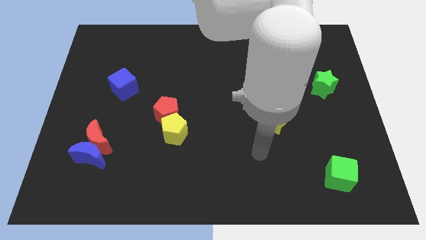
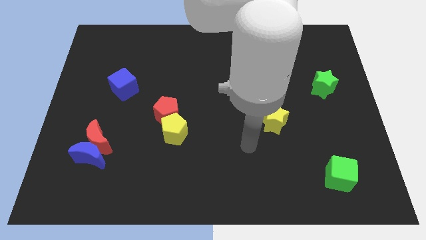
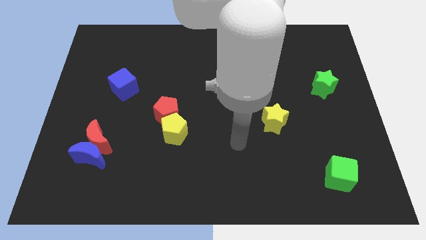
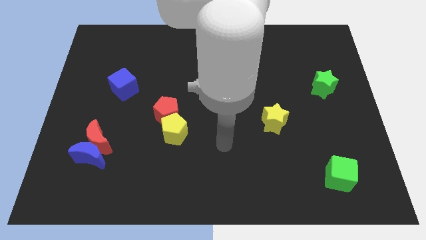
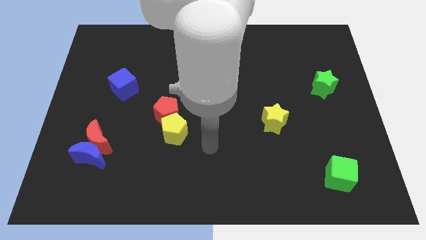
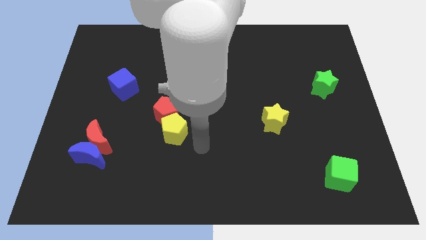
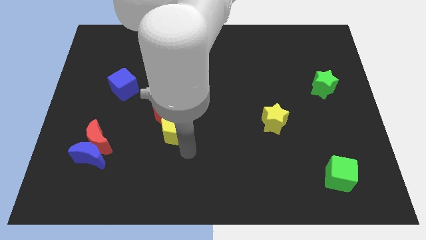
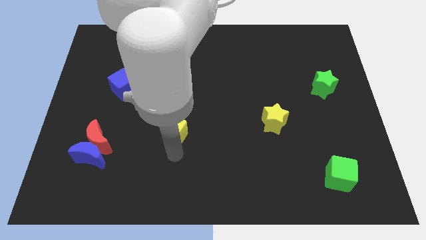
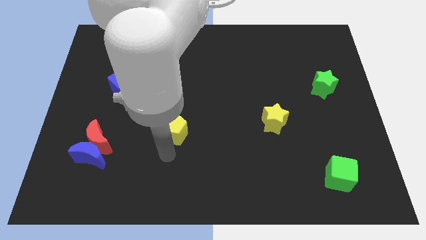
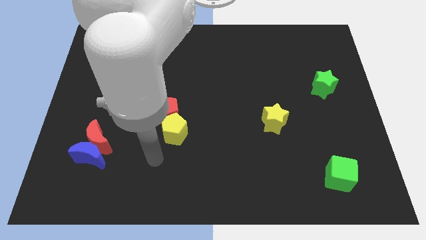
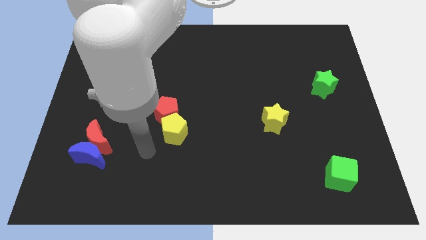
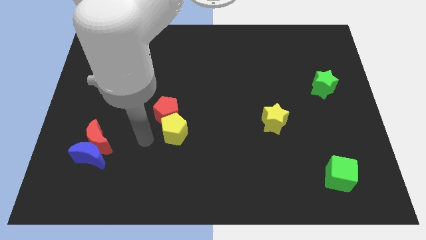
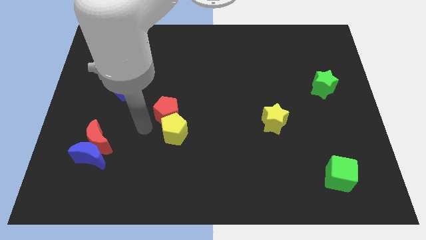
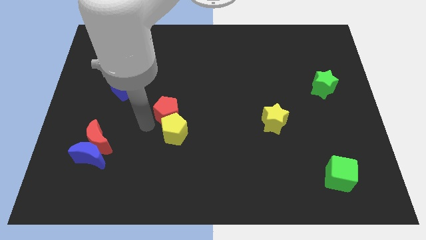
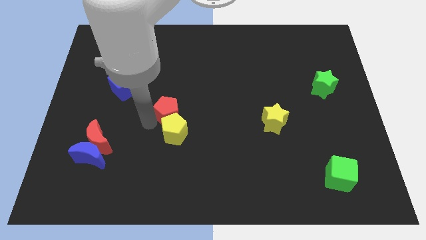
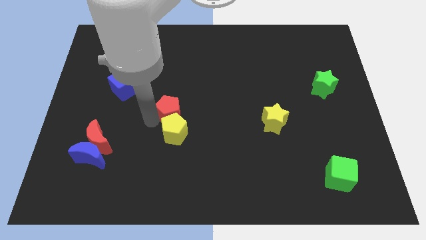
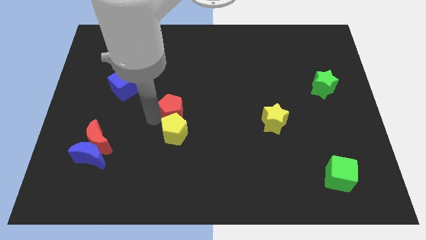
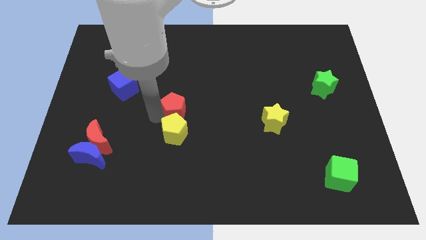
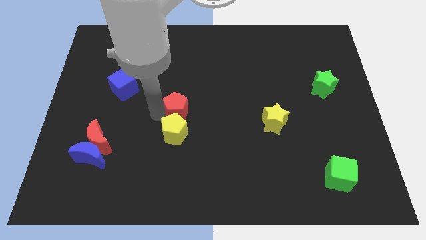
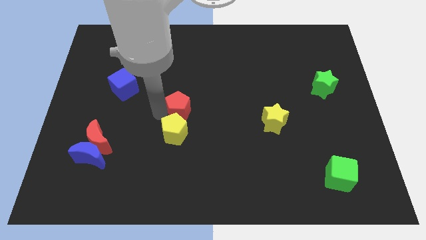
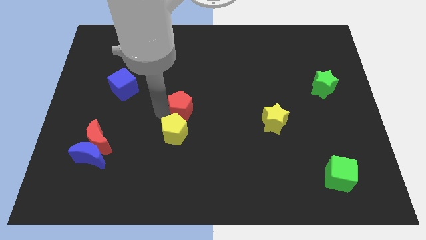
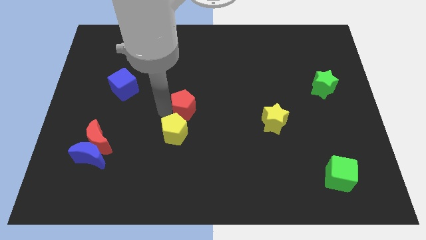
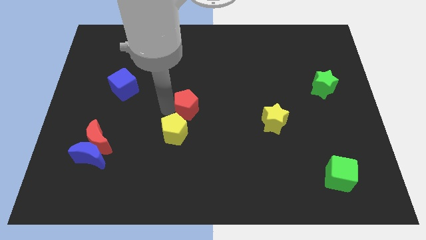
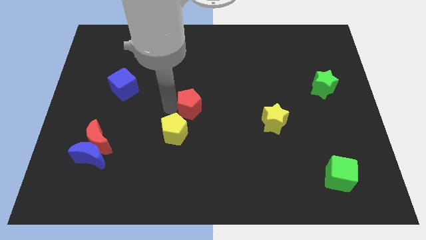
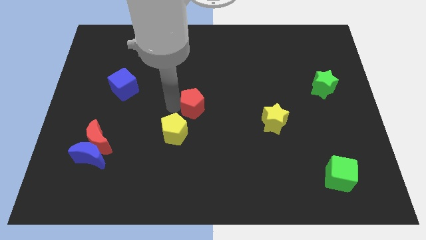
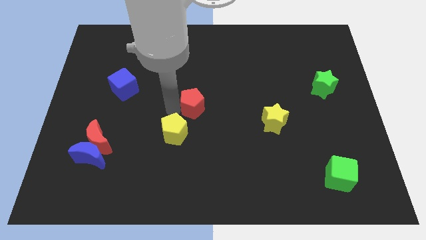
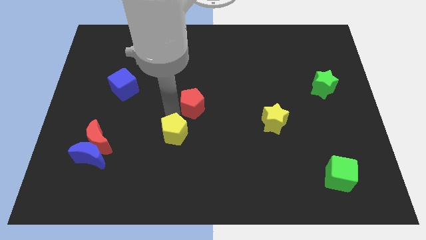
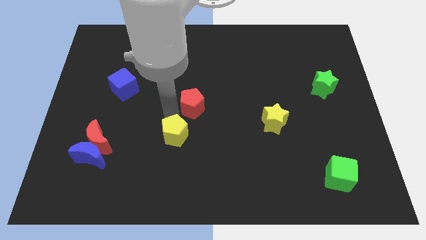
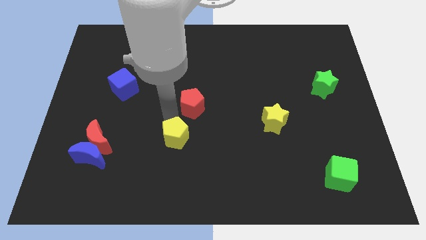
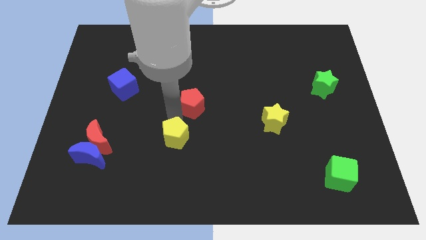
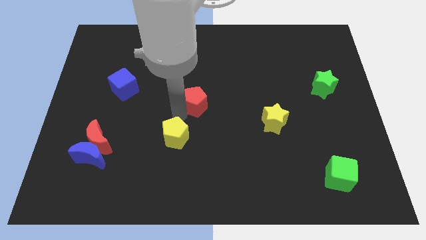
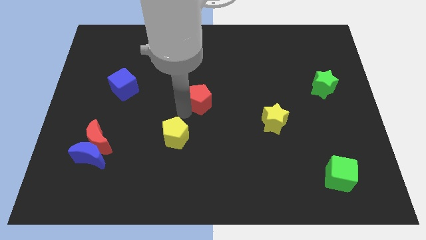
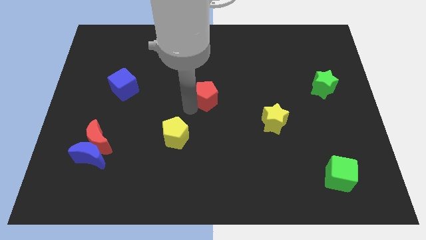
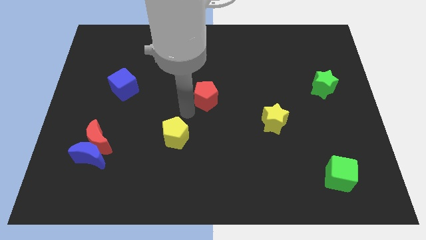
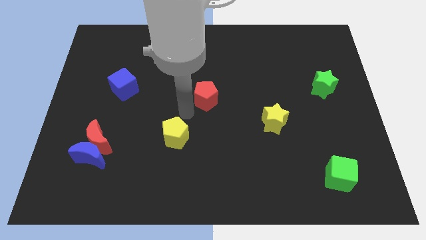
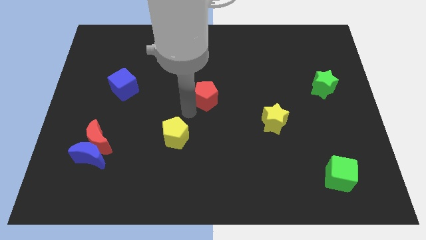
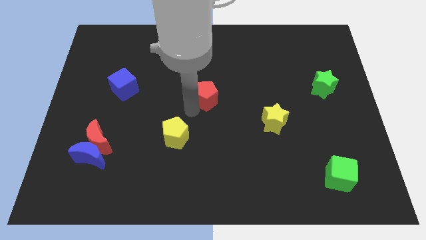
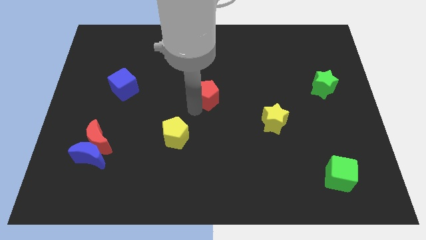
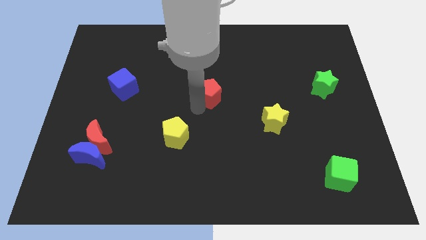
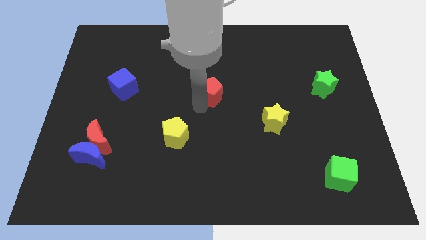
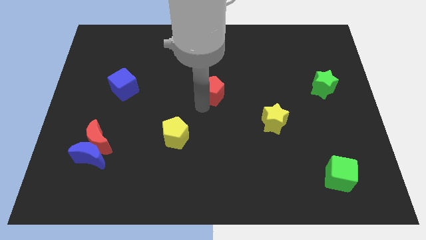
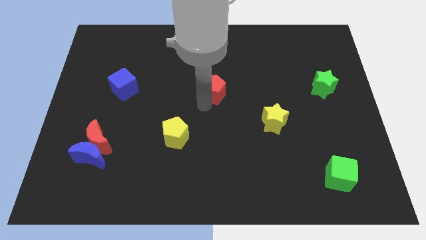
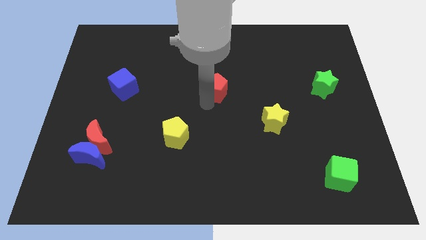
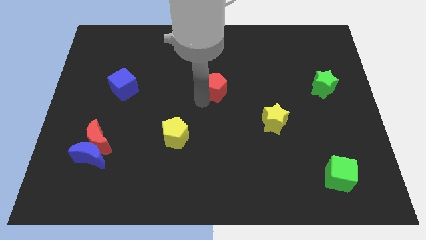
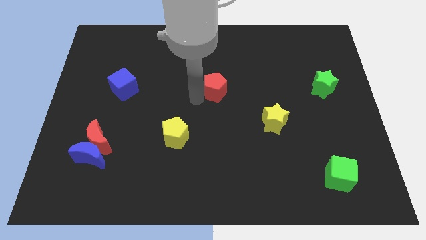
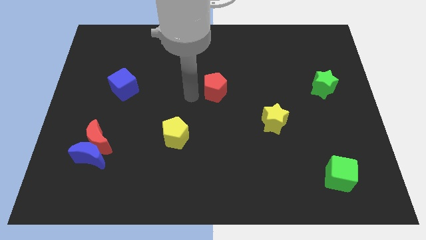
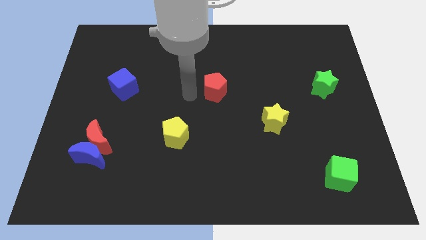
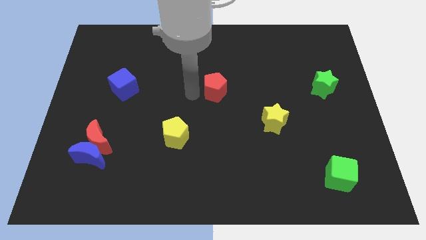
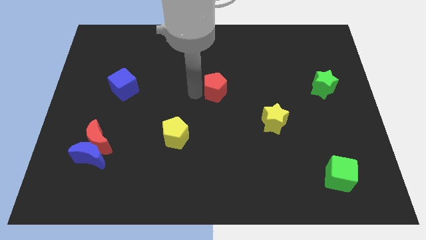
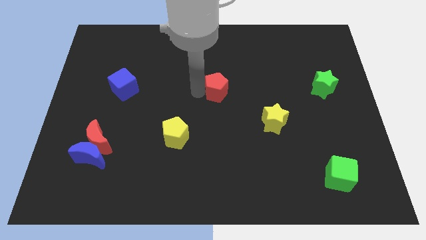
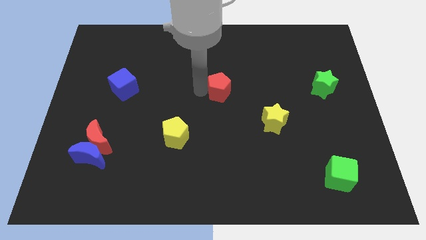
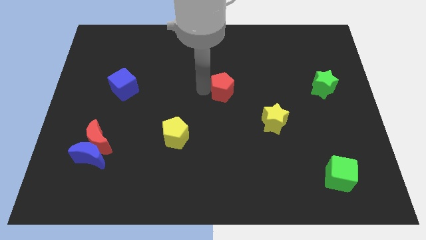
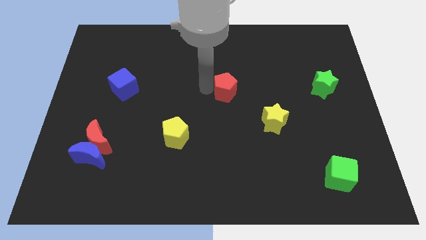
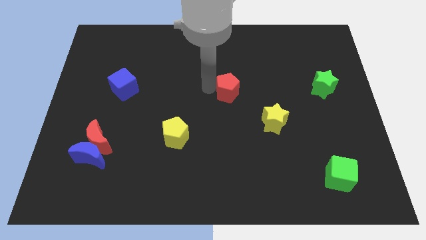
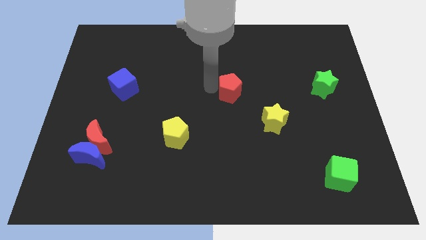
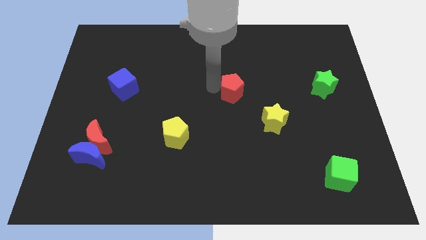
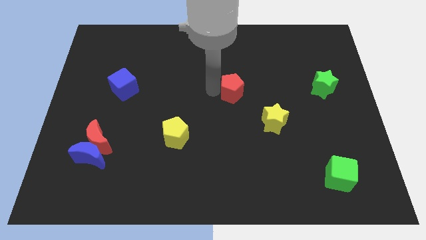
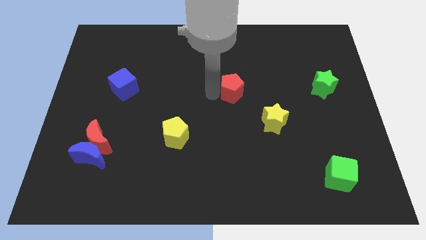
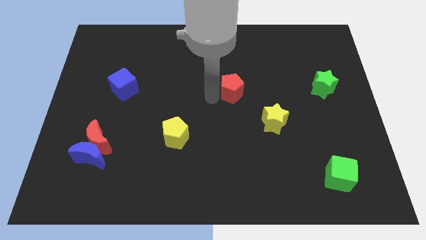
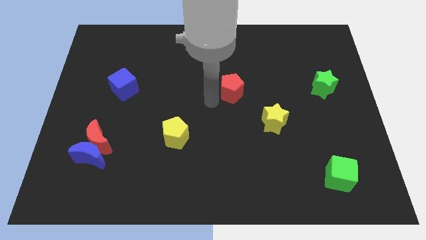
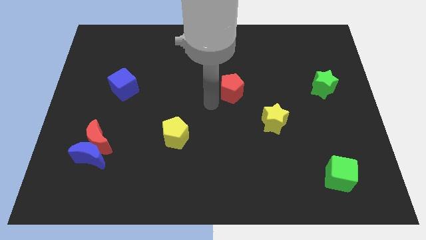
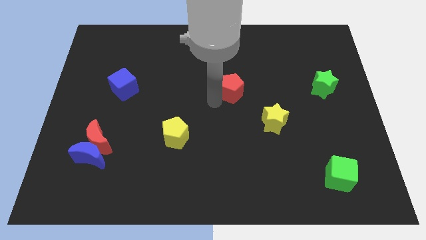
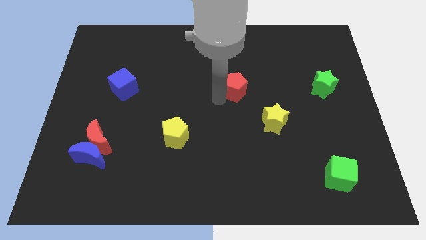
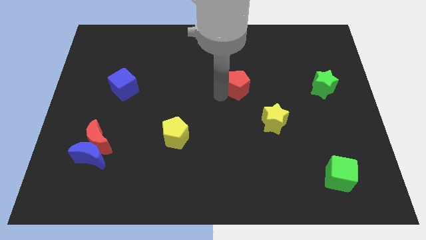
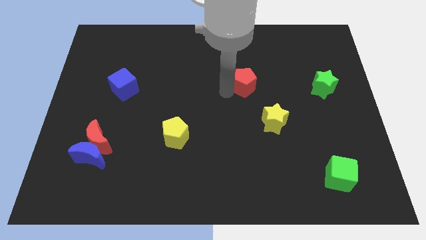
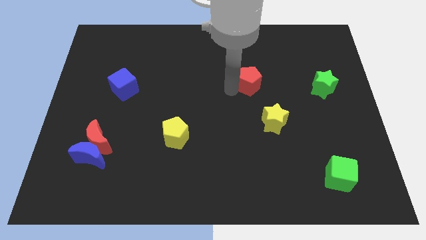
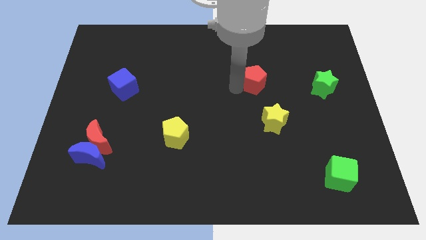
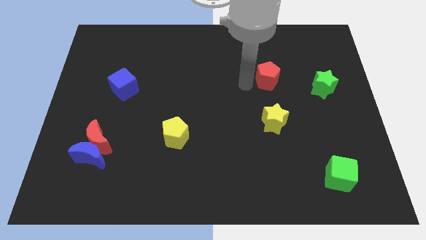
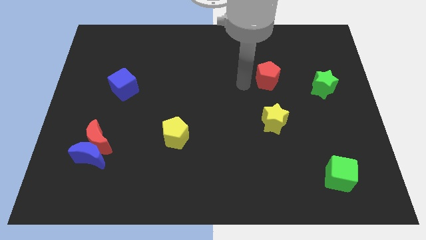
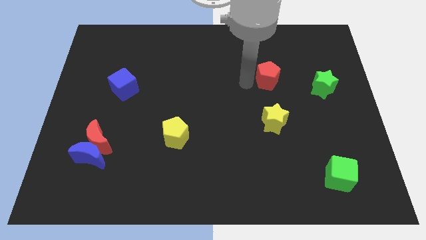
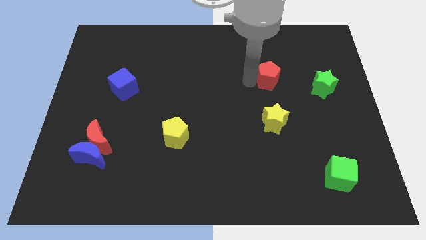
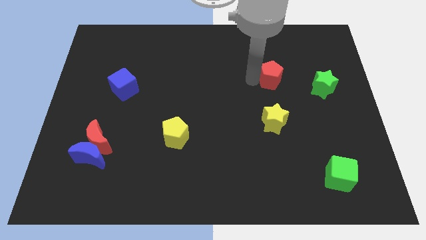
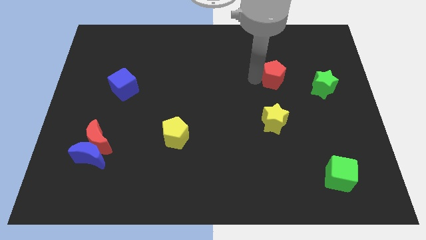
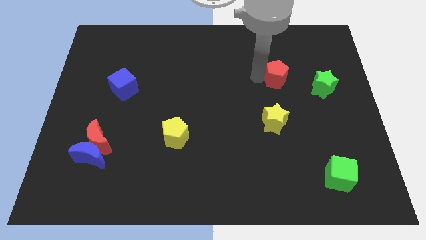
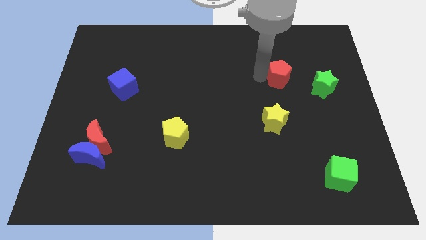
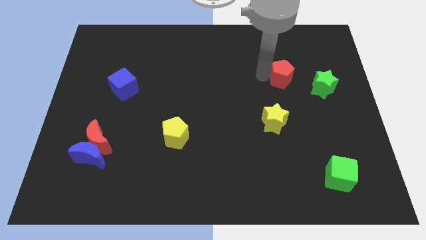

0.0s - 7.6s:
move the red pentagon diagonally up and to the left of the green star
